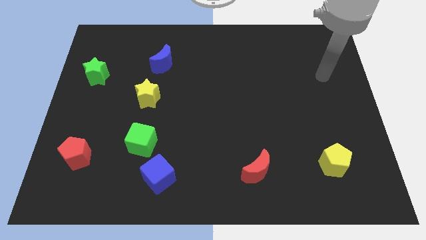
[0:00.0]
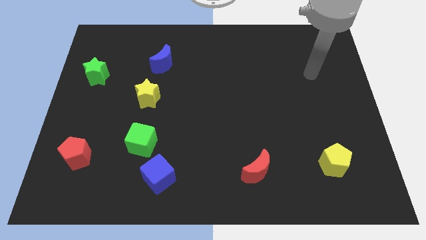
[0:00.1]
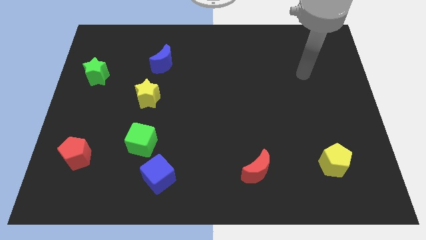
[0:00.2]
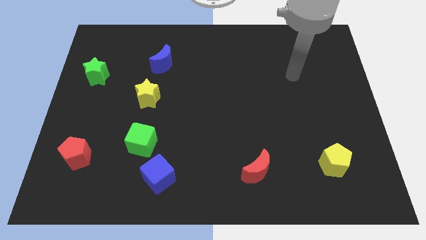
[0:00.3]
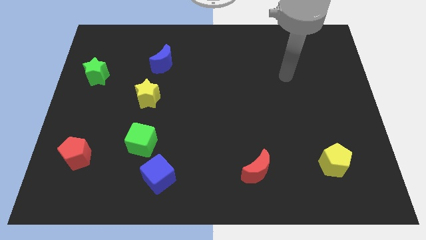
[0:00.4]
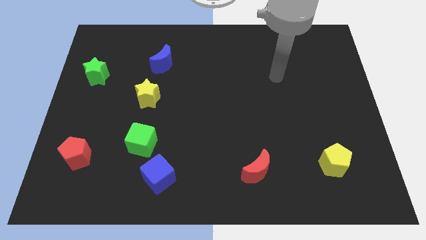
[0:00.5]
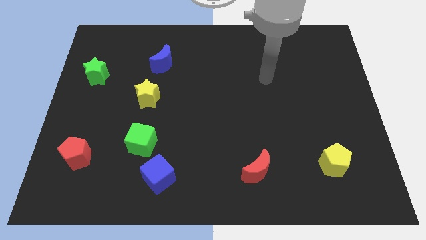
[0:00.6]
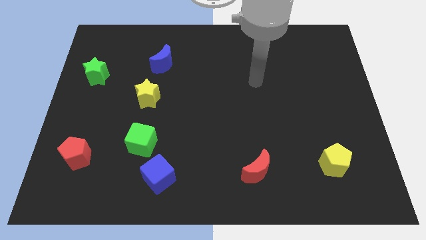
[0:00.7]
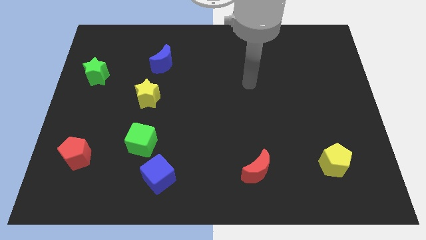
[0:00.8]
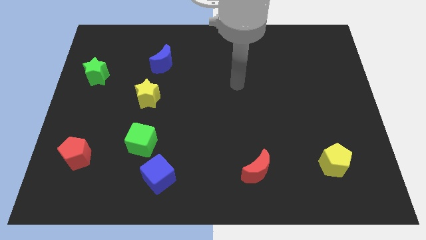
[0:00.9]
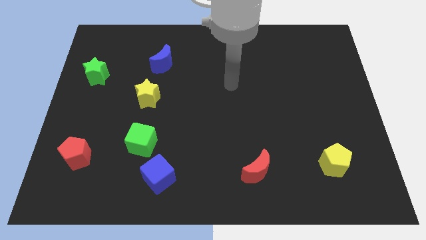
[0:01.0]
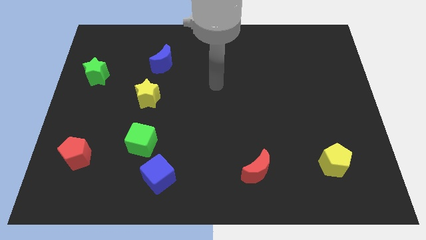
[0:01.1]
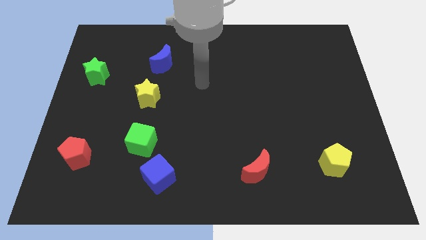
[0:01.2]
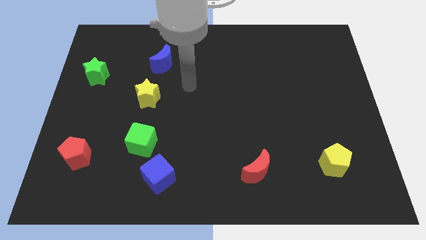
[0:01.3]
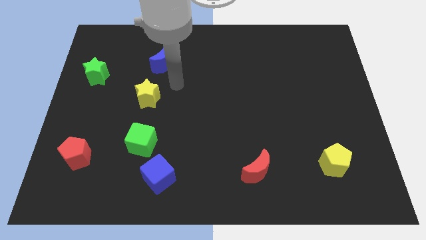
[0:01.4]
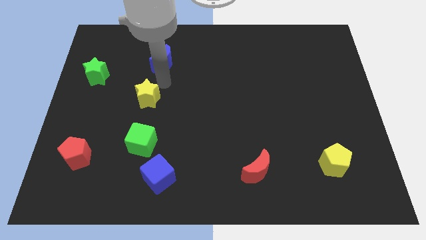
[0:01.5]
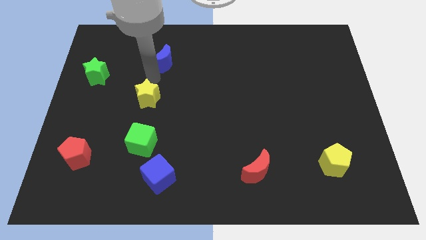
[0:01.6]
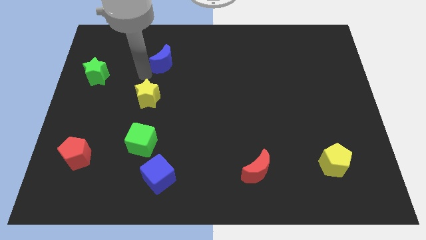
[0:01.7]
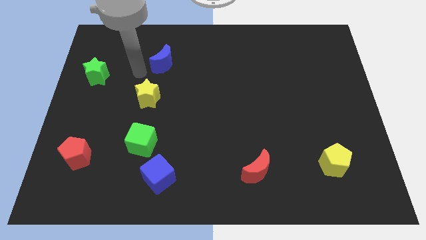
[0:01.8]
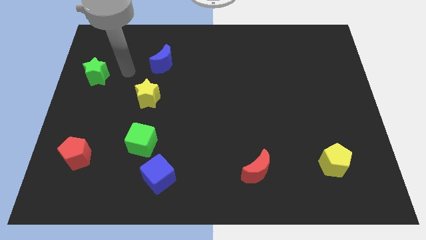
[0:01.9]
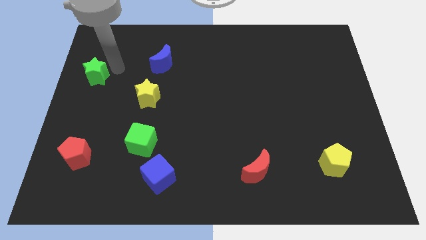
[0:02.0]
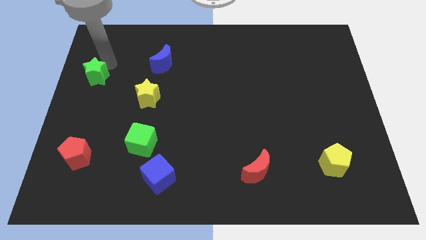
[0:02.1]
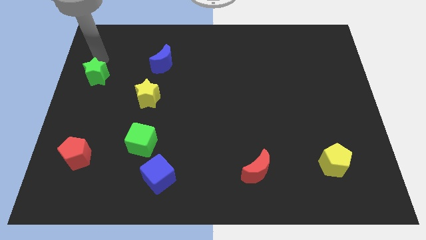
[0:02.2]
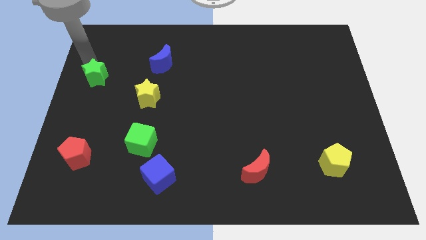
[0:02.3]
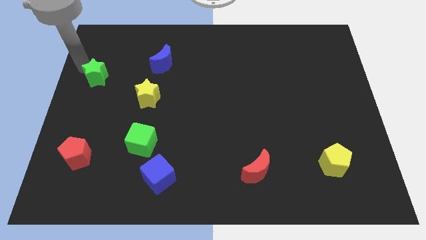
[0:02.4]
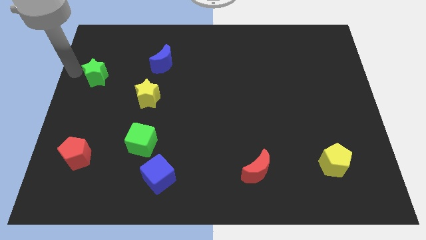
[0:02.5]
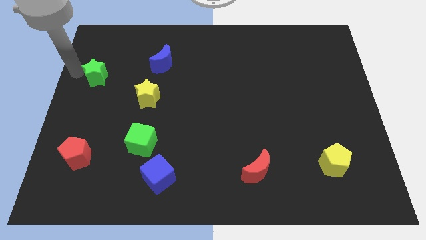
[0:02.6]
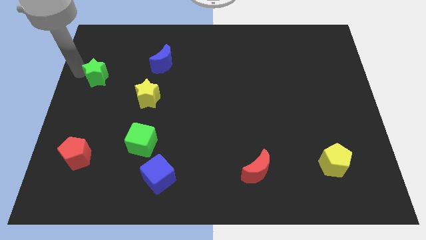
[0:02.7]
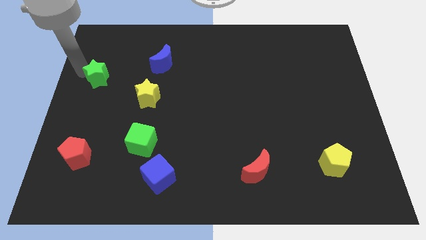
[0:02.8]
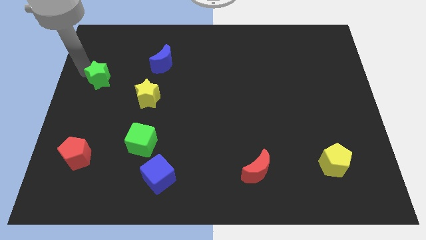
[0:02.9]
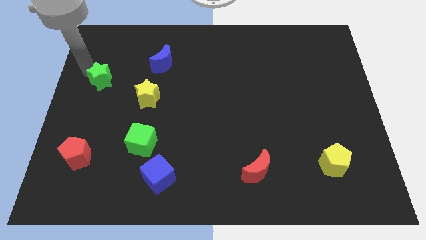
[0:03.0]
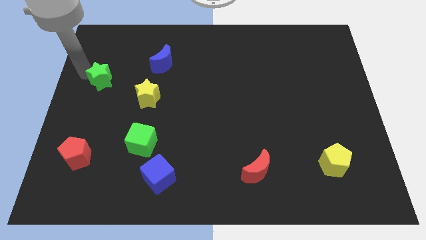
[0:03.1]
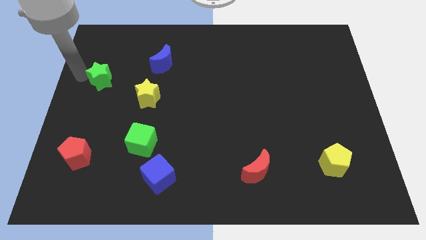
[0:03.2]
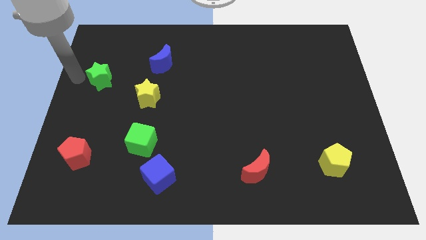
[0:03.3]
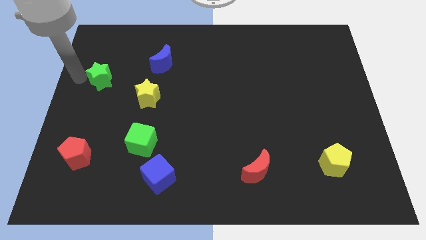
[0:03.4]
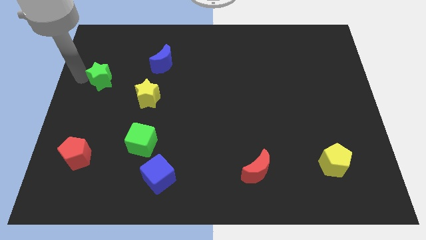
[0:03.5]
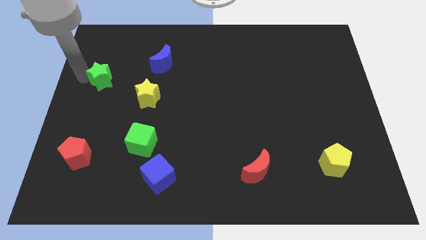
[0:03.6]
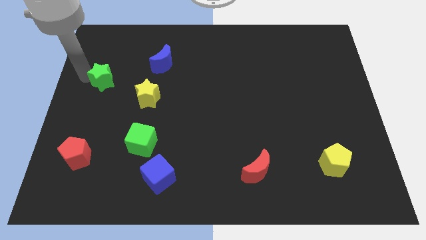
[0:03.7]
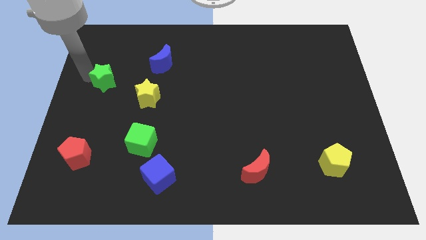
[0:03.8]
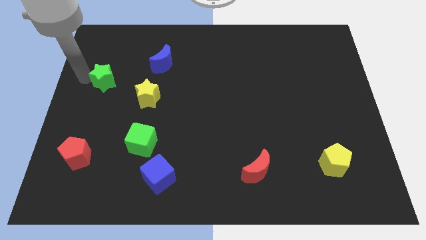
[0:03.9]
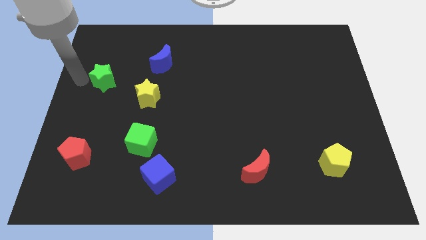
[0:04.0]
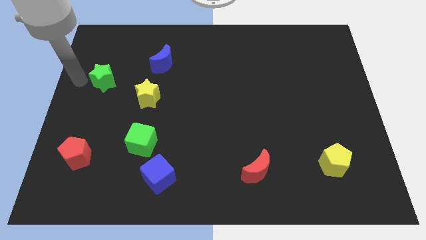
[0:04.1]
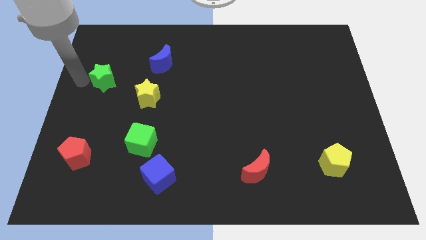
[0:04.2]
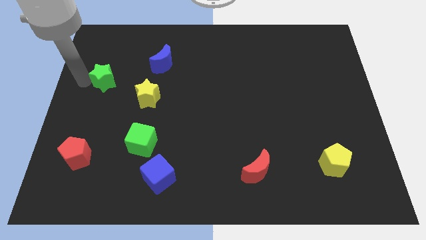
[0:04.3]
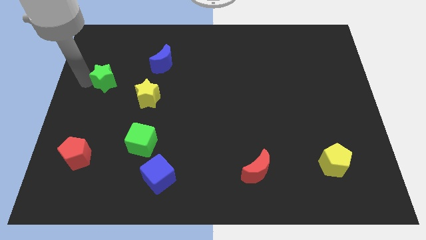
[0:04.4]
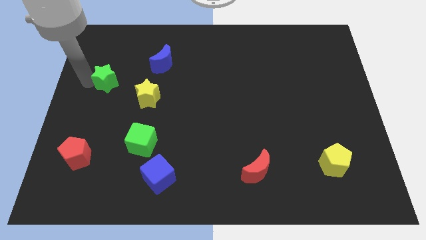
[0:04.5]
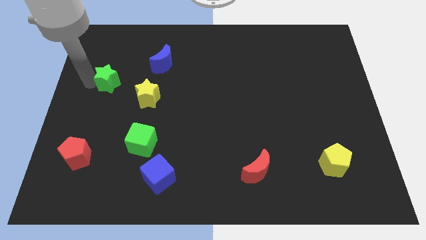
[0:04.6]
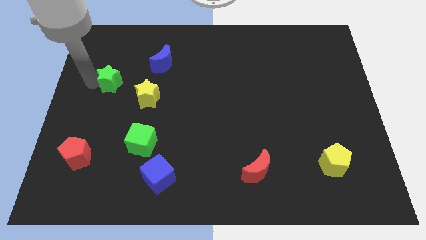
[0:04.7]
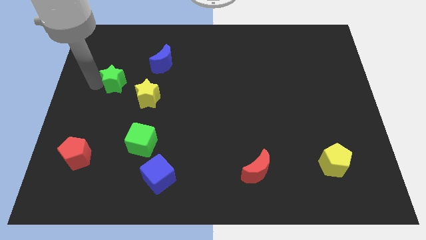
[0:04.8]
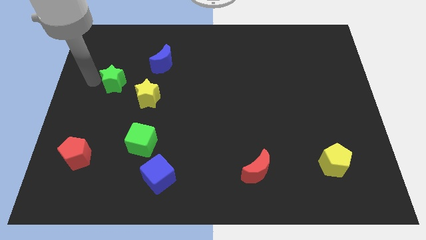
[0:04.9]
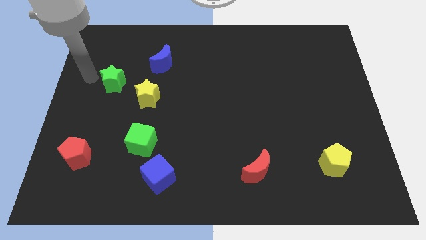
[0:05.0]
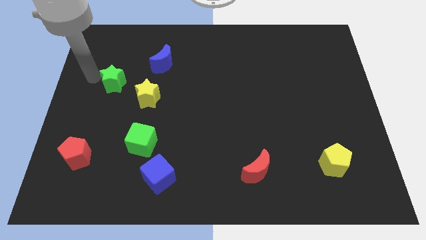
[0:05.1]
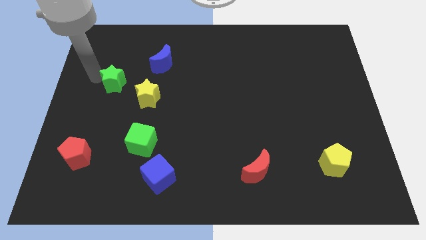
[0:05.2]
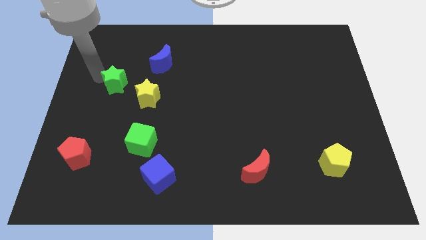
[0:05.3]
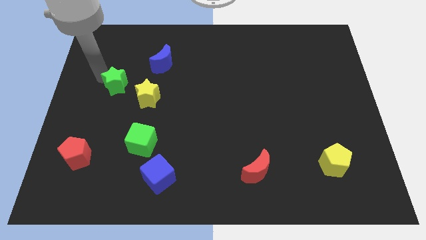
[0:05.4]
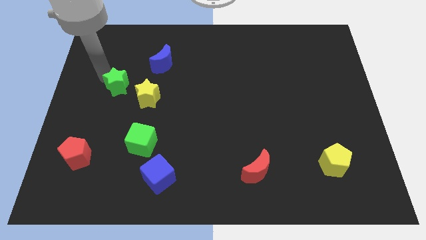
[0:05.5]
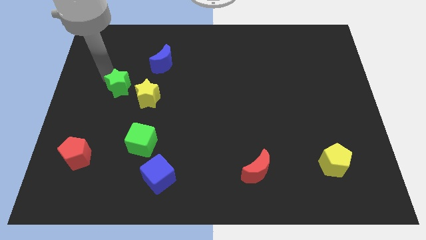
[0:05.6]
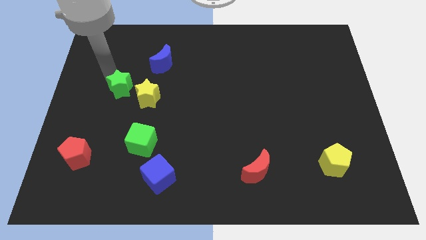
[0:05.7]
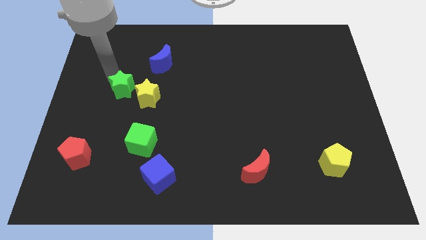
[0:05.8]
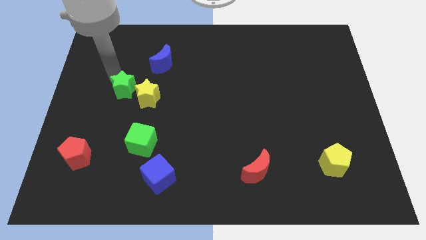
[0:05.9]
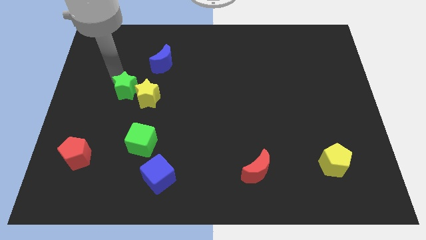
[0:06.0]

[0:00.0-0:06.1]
put the green star towards the yellow star

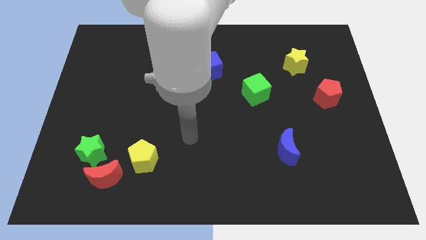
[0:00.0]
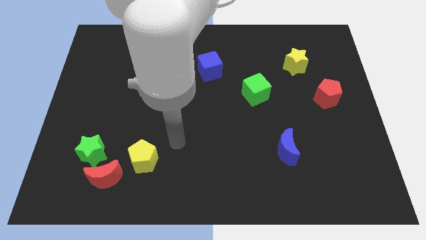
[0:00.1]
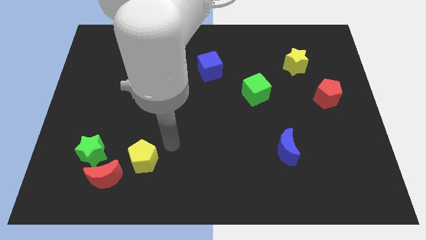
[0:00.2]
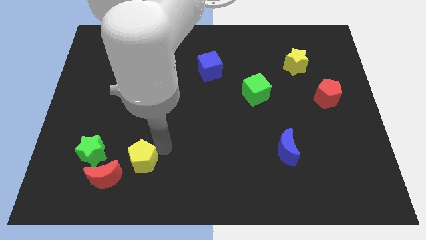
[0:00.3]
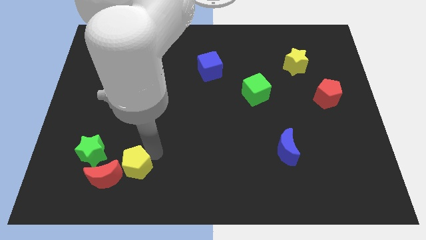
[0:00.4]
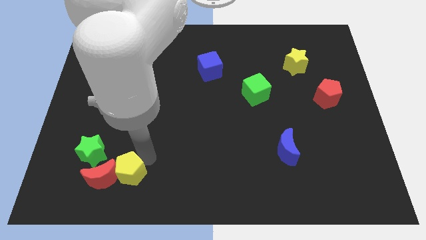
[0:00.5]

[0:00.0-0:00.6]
push the yellow pentagon next to the red moon

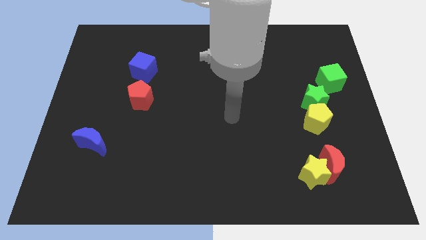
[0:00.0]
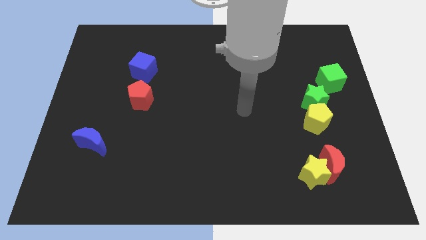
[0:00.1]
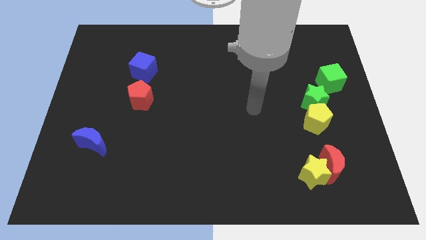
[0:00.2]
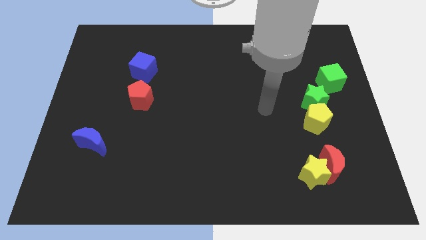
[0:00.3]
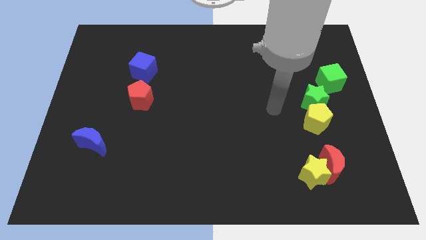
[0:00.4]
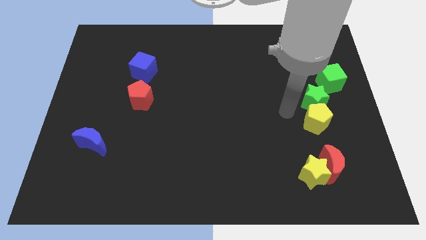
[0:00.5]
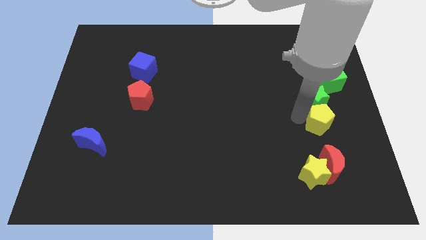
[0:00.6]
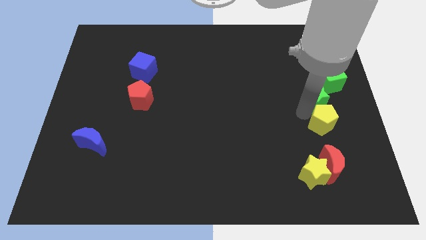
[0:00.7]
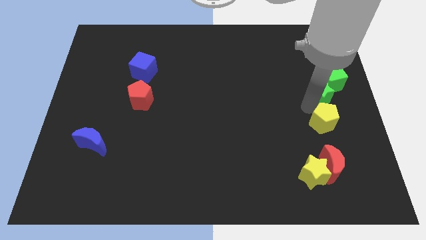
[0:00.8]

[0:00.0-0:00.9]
push the green star close to the green cube

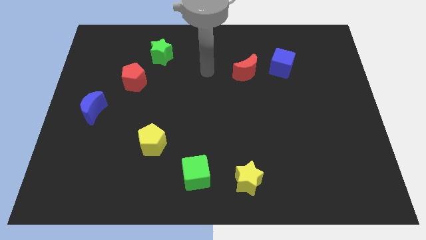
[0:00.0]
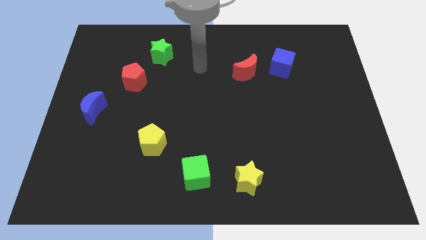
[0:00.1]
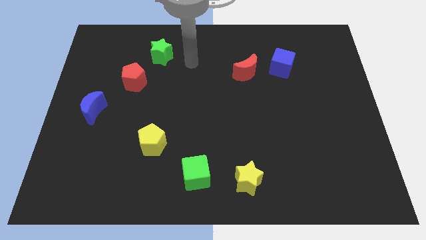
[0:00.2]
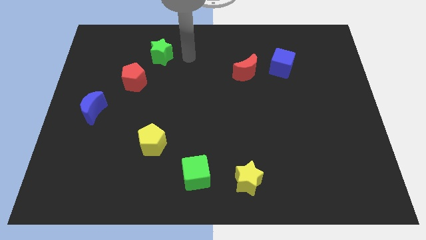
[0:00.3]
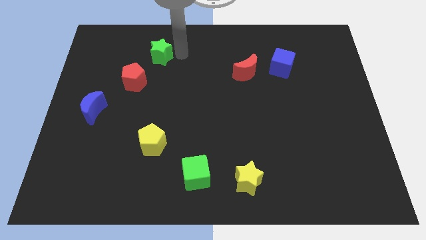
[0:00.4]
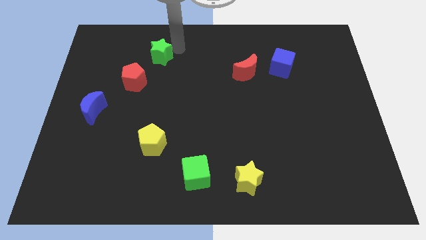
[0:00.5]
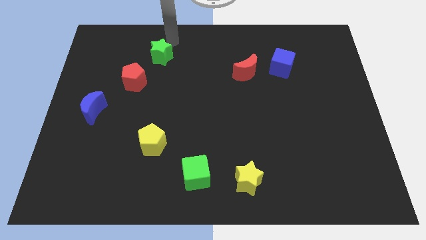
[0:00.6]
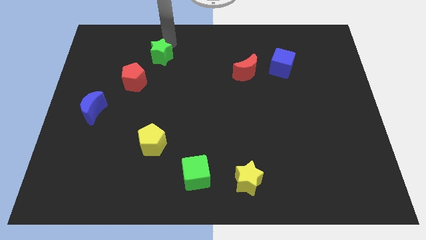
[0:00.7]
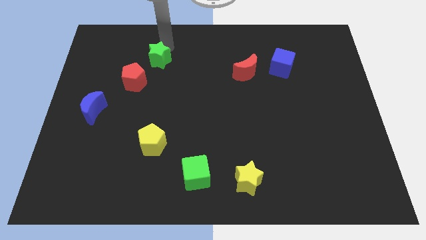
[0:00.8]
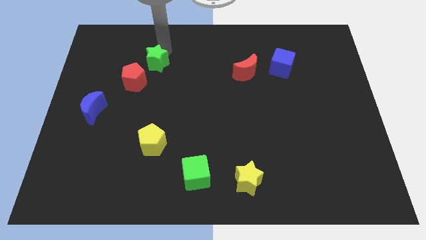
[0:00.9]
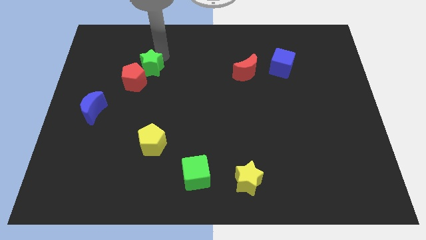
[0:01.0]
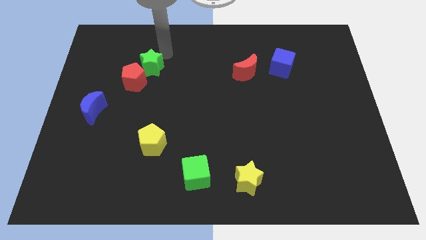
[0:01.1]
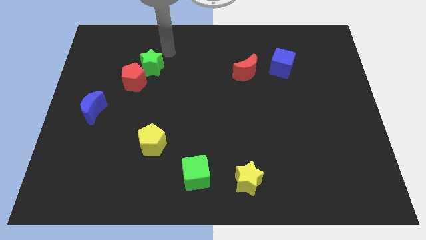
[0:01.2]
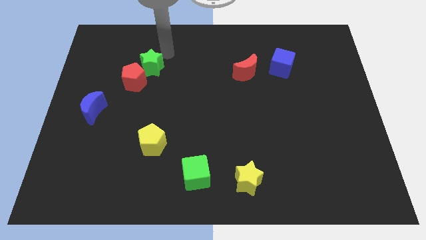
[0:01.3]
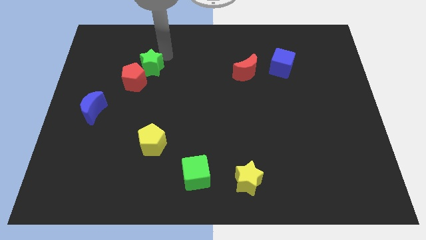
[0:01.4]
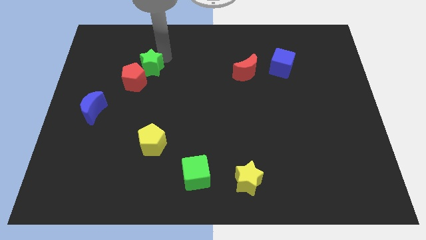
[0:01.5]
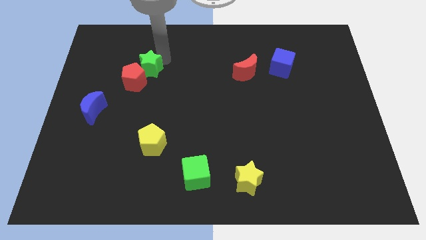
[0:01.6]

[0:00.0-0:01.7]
push the green star towards the red pentagon
